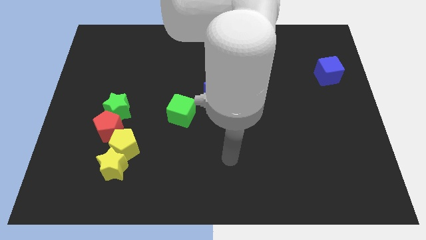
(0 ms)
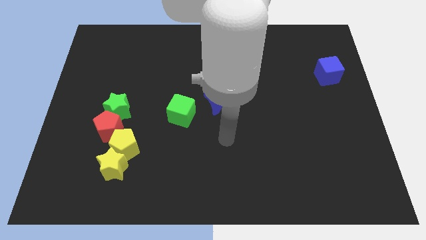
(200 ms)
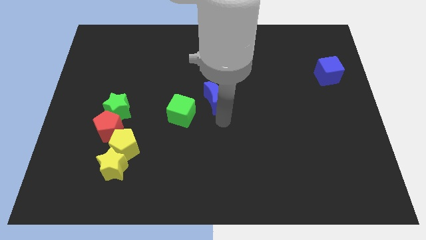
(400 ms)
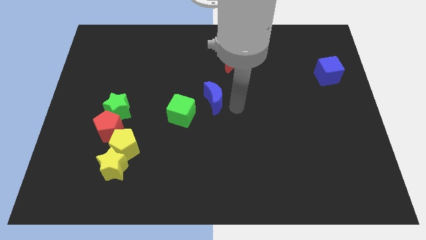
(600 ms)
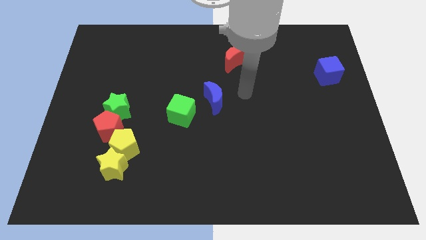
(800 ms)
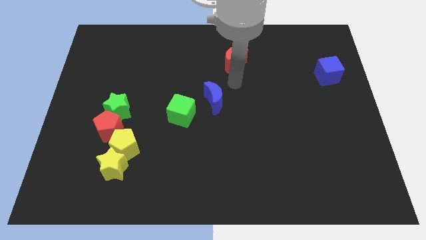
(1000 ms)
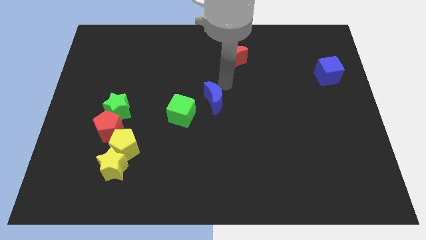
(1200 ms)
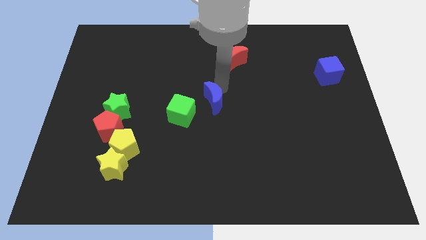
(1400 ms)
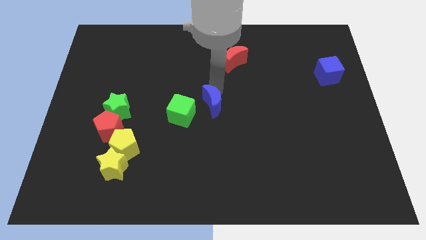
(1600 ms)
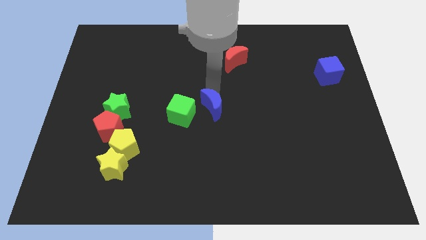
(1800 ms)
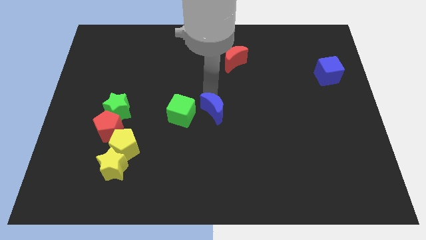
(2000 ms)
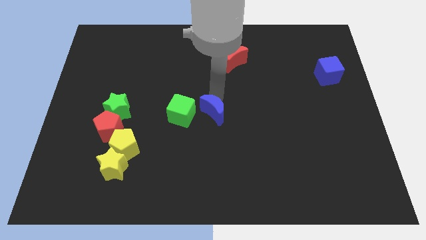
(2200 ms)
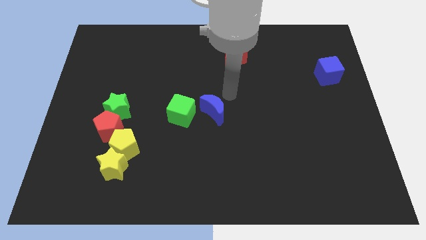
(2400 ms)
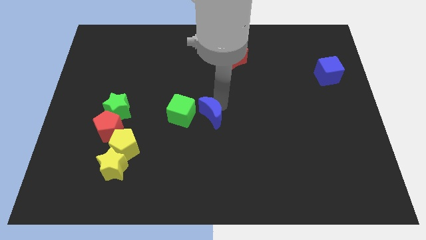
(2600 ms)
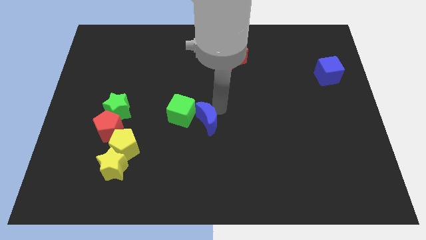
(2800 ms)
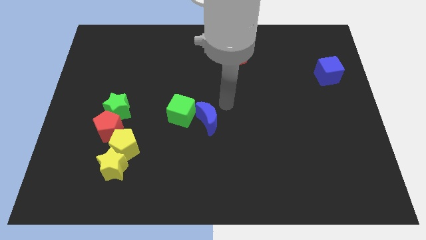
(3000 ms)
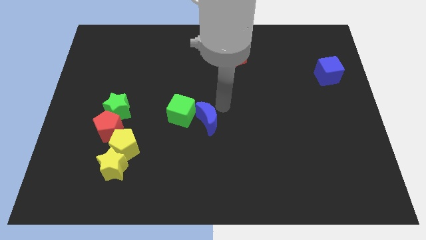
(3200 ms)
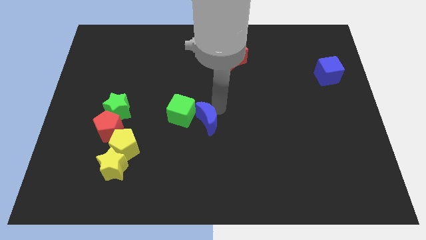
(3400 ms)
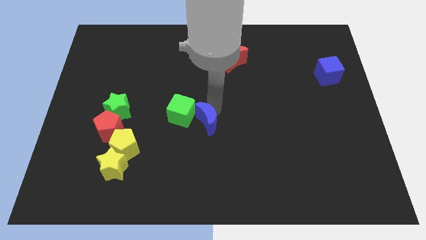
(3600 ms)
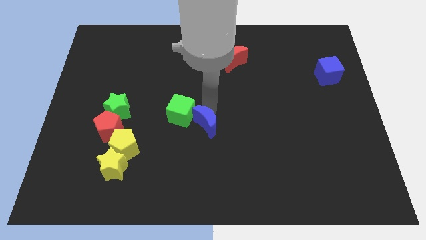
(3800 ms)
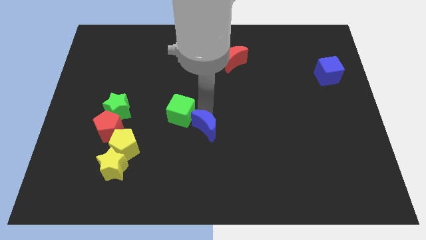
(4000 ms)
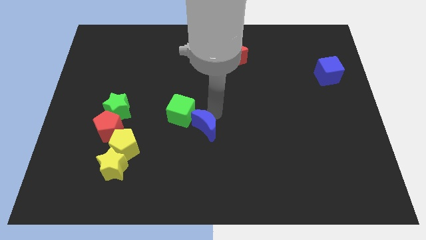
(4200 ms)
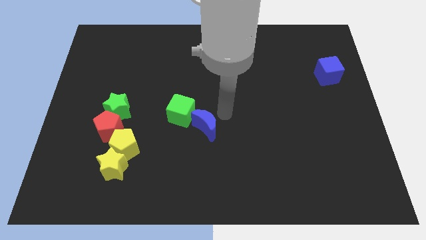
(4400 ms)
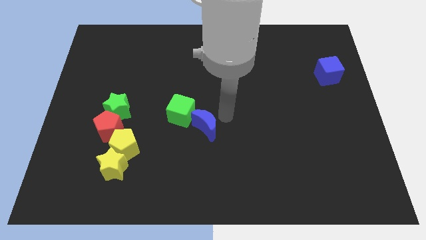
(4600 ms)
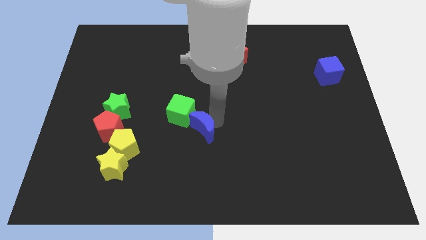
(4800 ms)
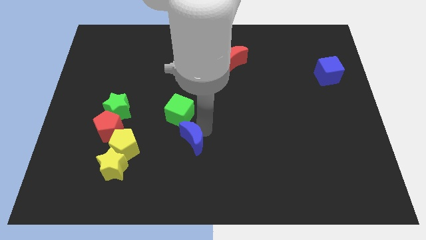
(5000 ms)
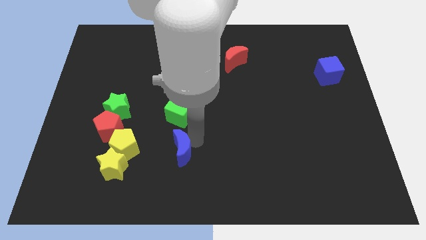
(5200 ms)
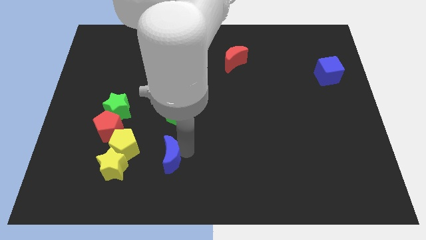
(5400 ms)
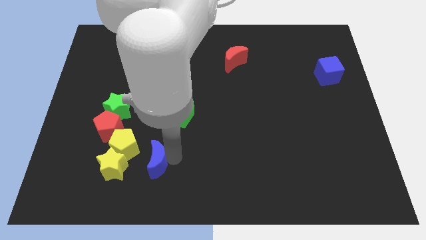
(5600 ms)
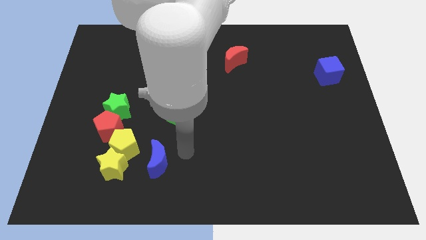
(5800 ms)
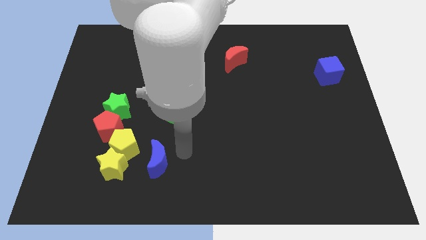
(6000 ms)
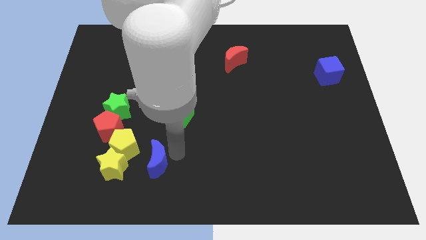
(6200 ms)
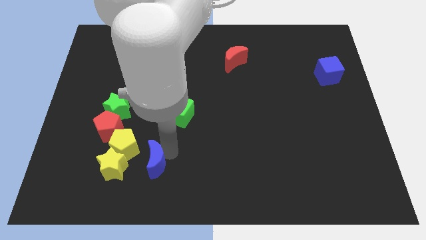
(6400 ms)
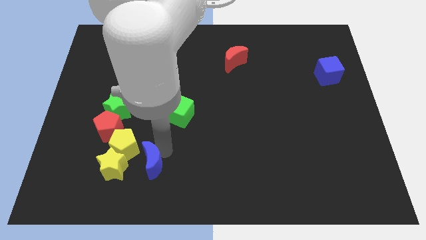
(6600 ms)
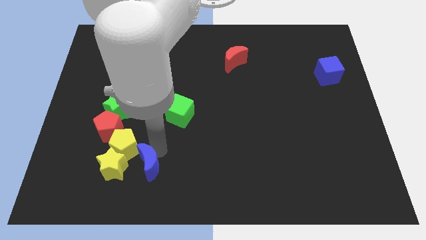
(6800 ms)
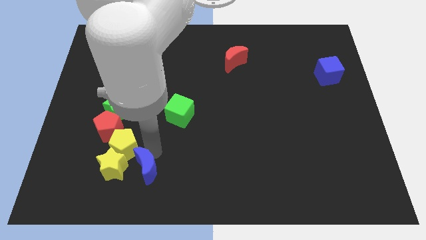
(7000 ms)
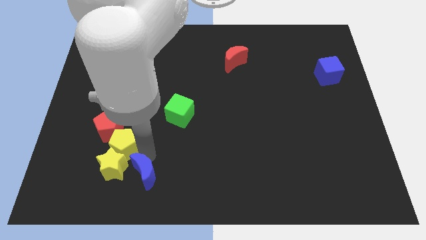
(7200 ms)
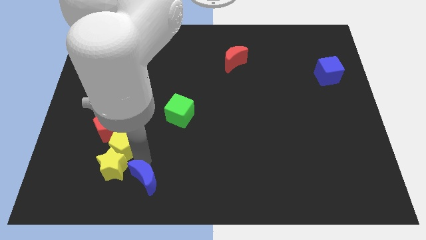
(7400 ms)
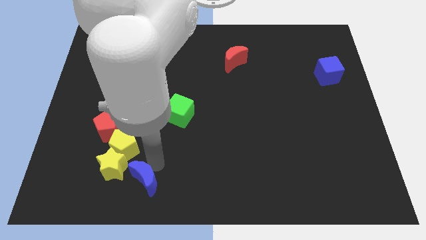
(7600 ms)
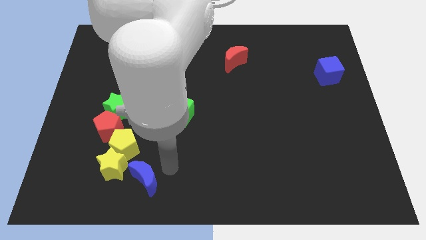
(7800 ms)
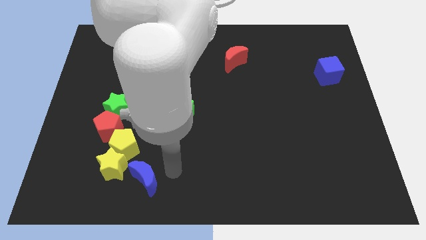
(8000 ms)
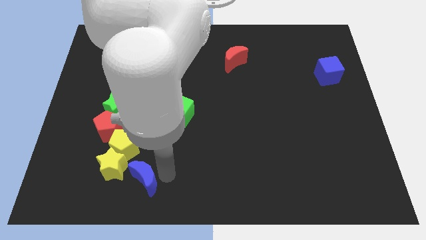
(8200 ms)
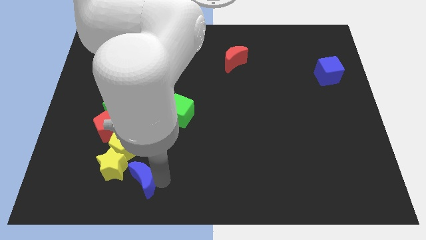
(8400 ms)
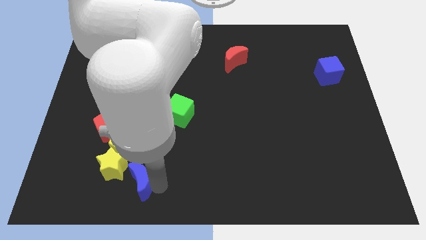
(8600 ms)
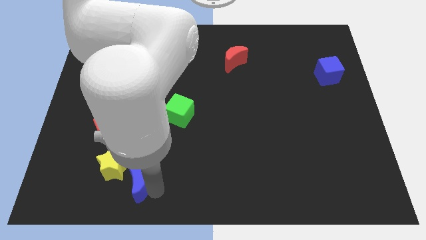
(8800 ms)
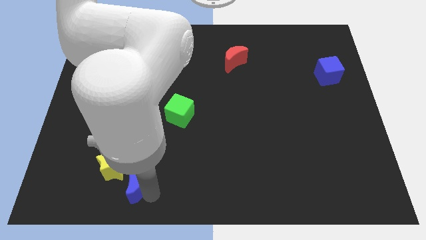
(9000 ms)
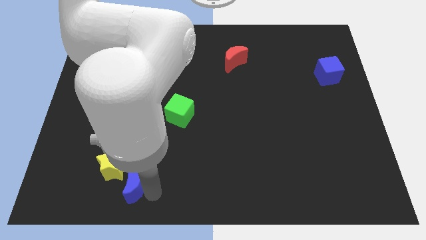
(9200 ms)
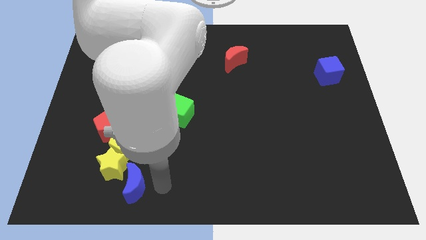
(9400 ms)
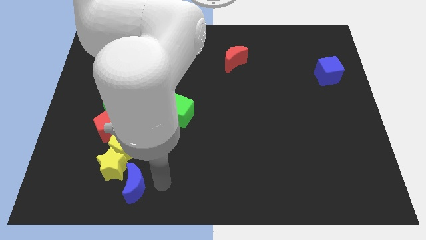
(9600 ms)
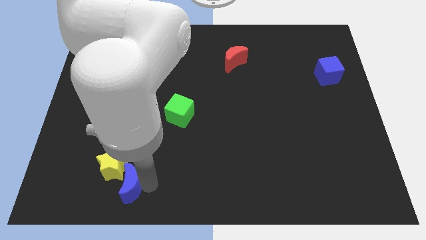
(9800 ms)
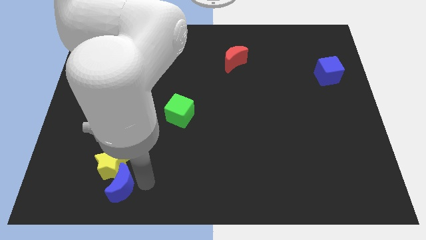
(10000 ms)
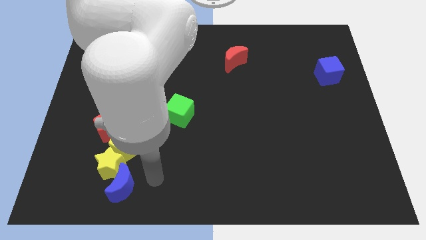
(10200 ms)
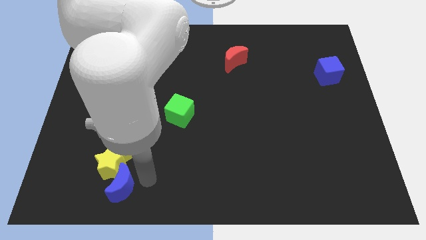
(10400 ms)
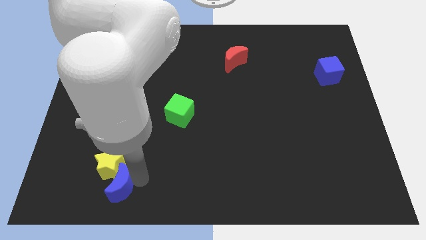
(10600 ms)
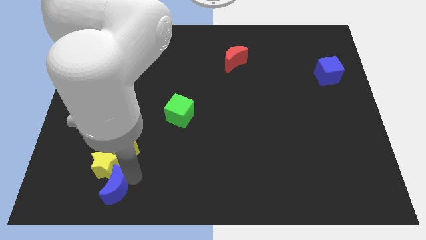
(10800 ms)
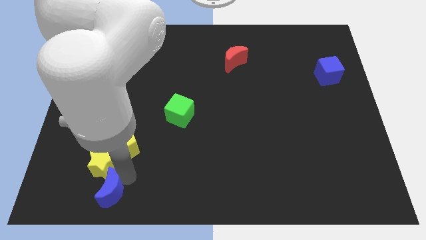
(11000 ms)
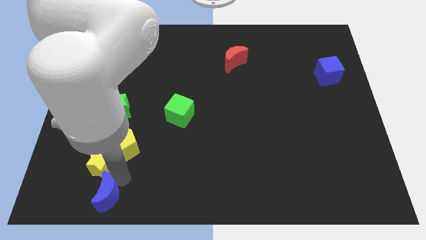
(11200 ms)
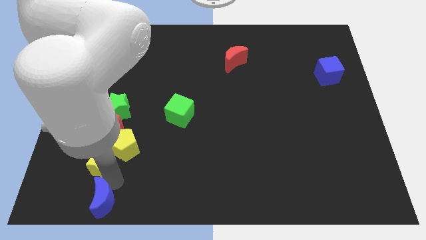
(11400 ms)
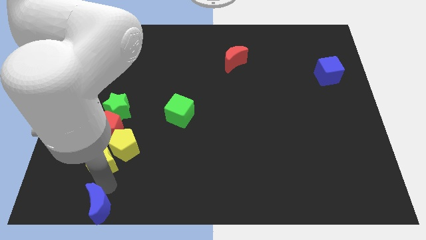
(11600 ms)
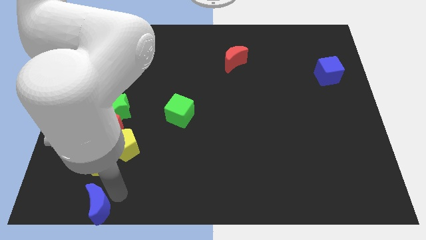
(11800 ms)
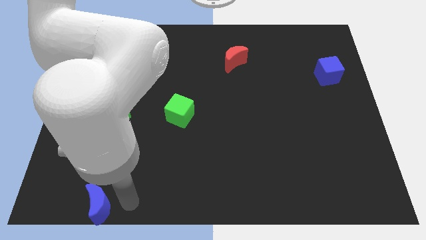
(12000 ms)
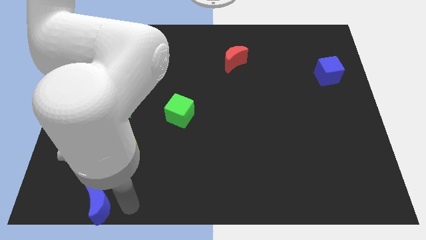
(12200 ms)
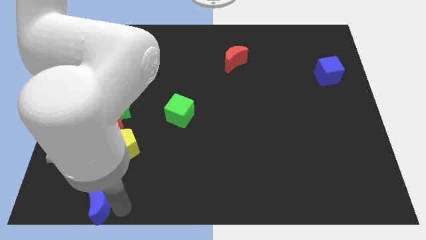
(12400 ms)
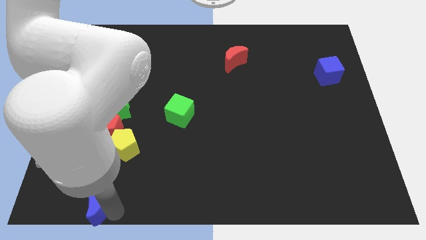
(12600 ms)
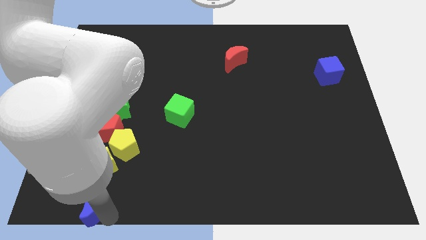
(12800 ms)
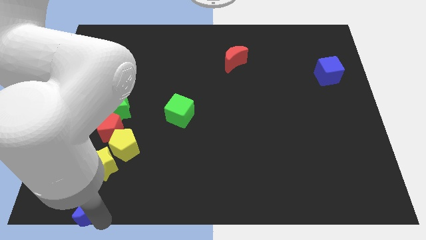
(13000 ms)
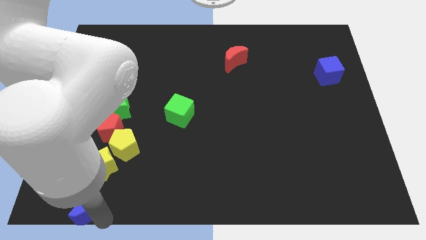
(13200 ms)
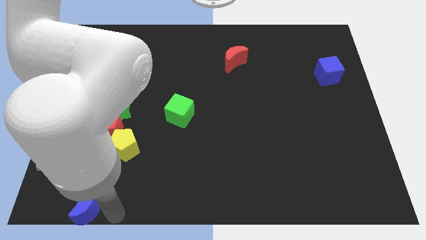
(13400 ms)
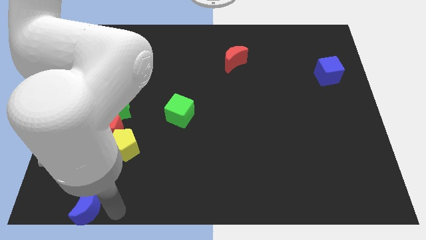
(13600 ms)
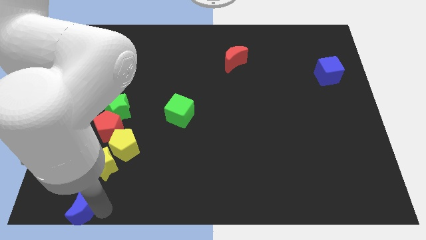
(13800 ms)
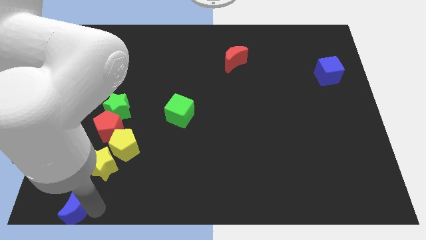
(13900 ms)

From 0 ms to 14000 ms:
push the blue moon to the bottom left
